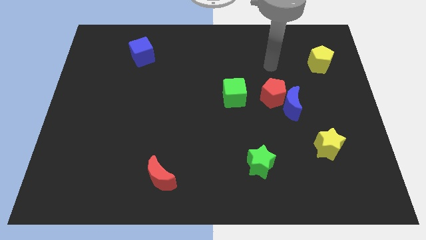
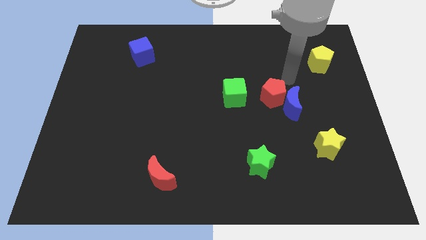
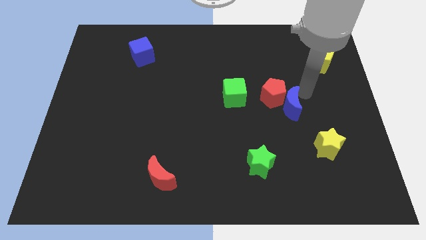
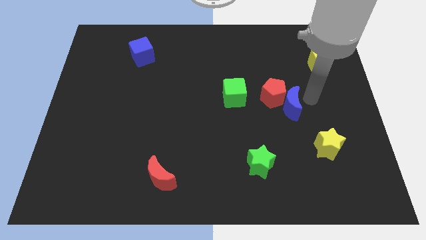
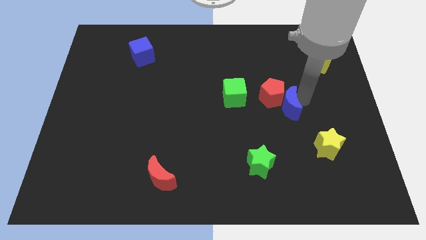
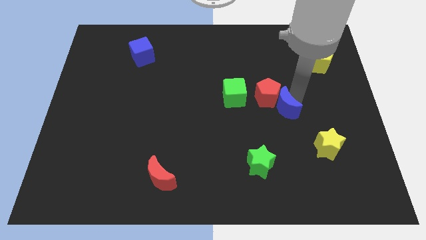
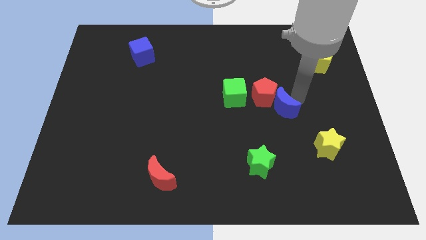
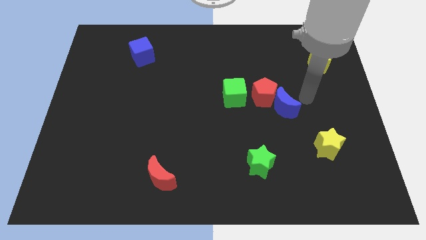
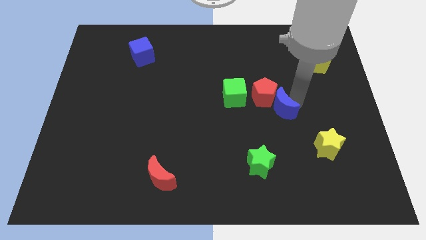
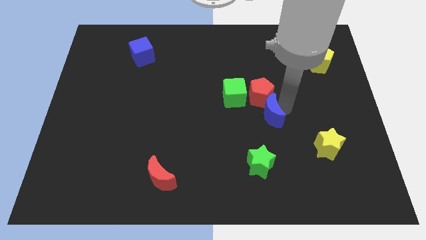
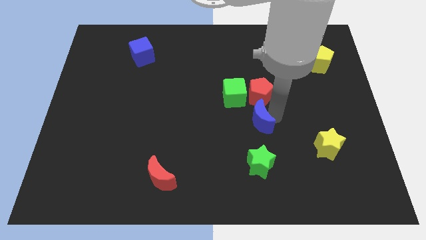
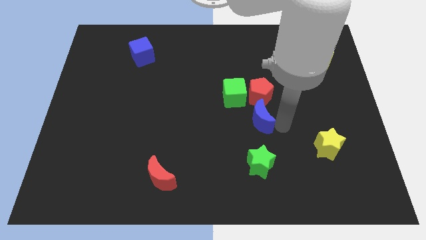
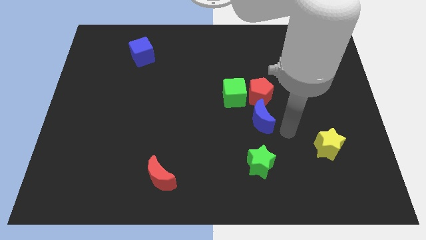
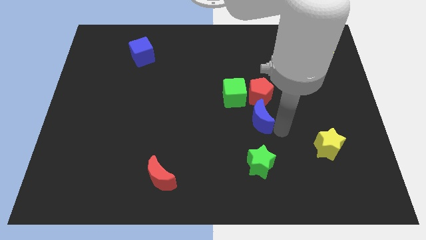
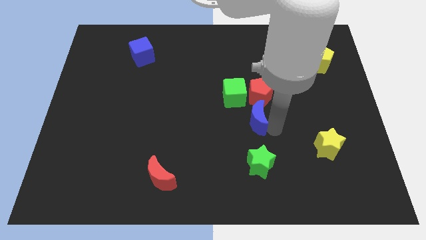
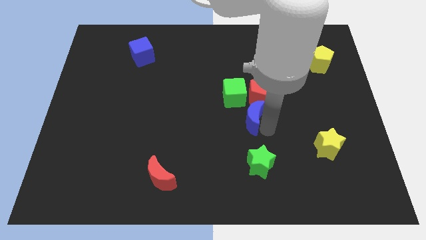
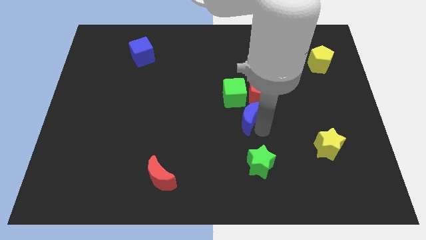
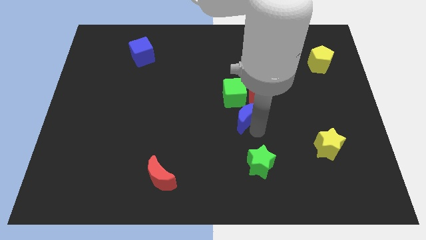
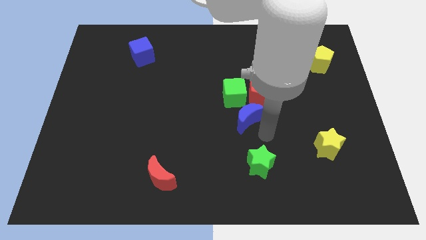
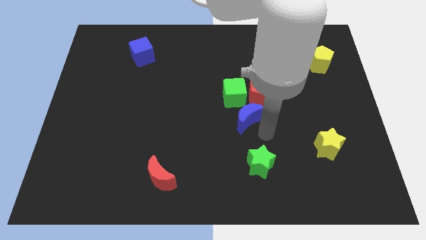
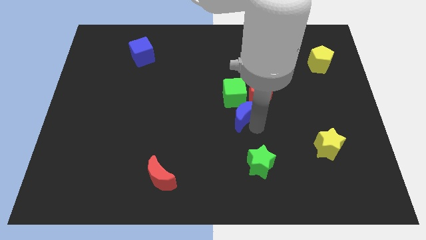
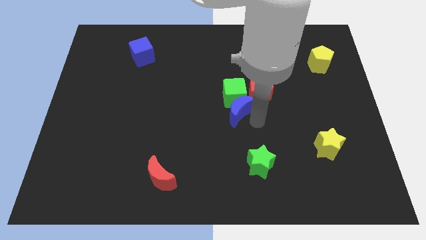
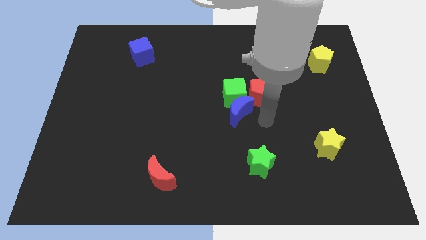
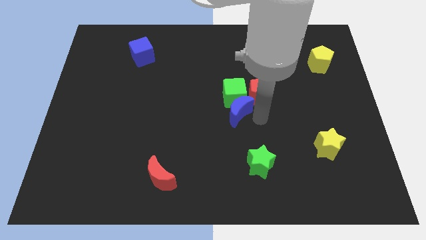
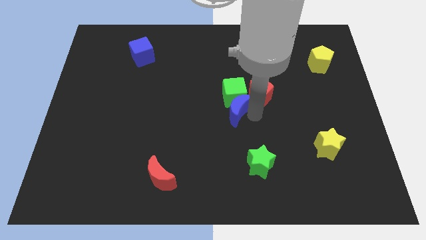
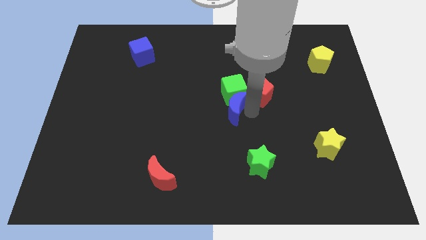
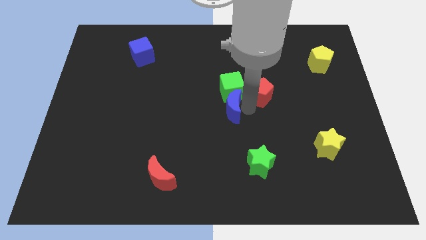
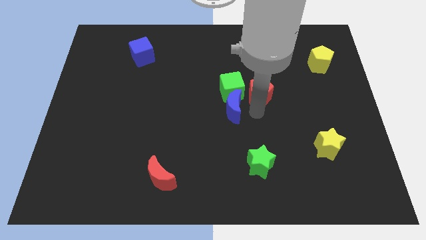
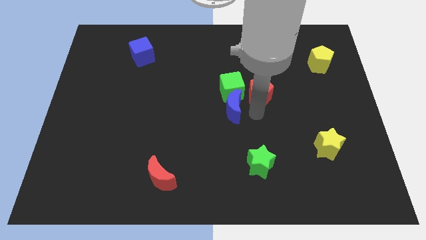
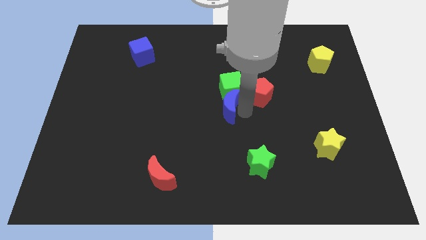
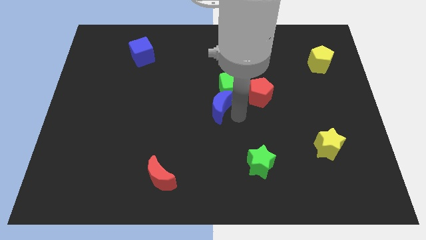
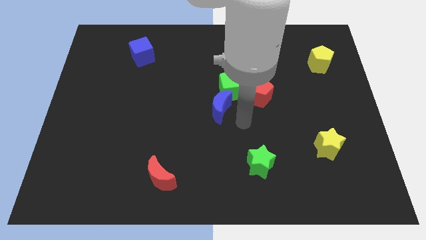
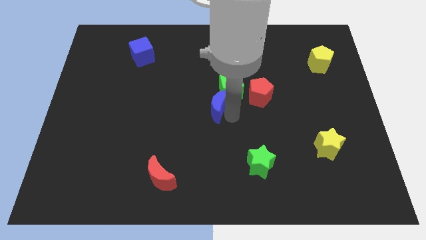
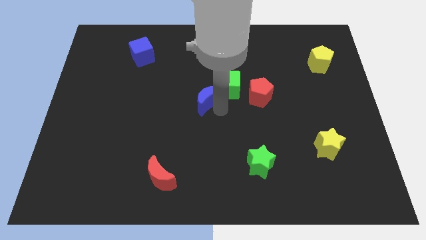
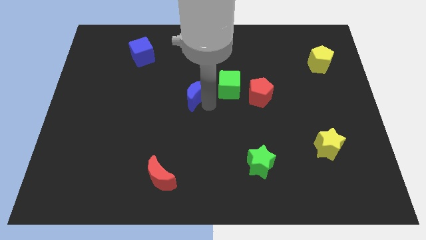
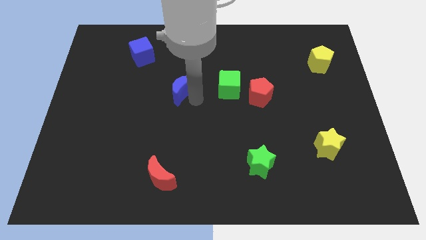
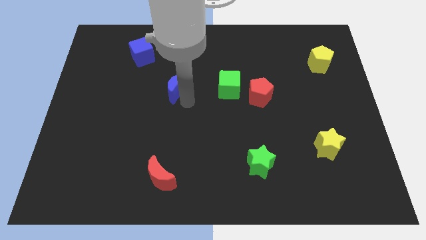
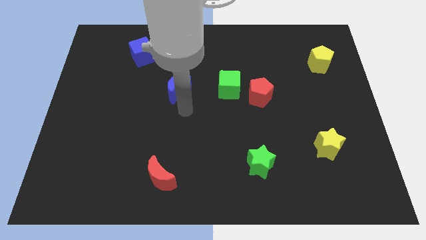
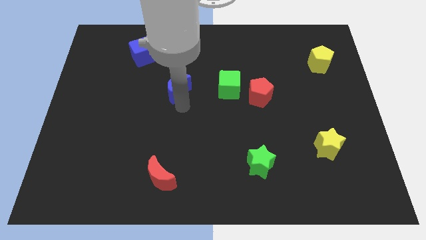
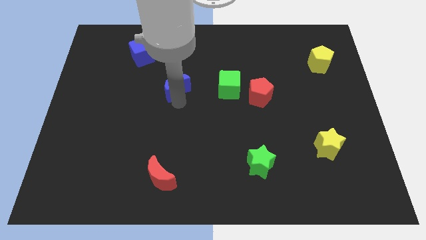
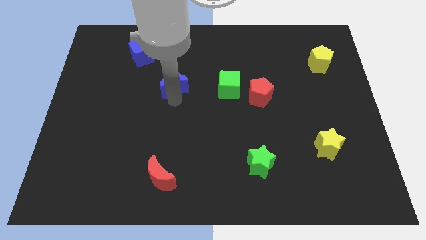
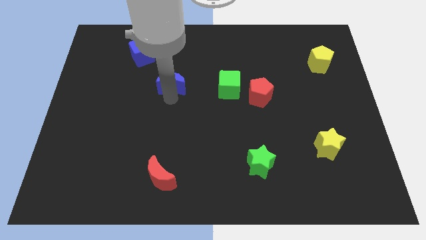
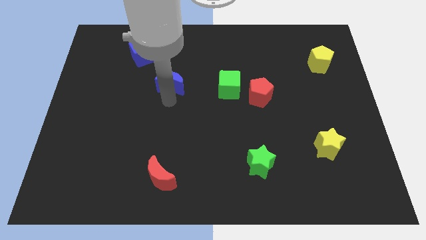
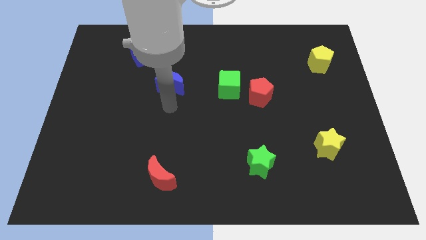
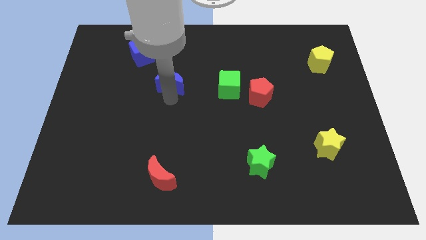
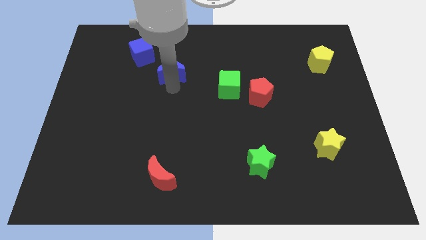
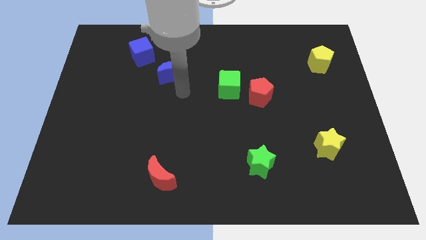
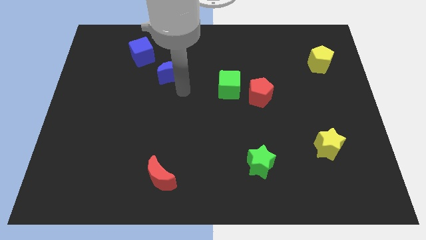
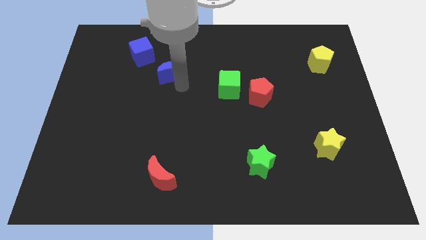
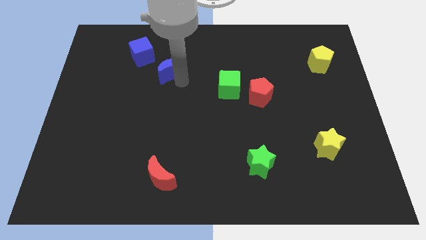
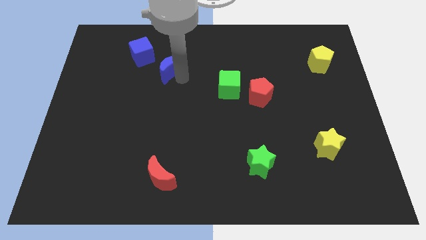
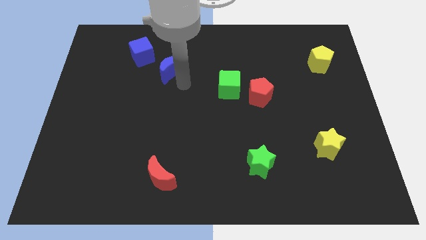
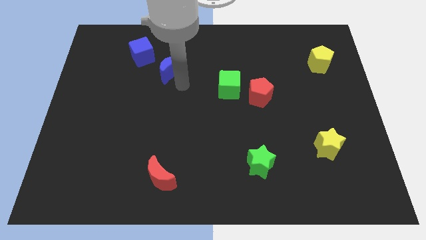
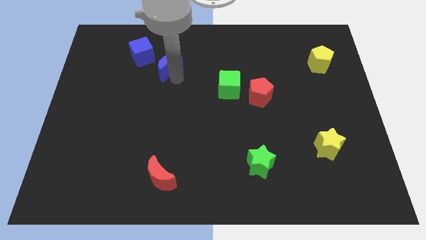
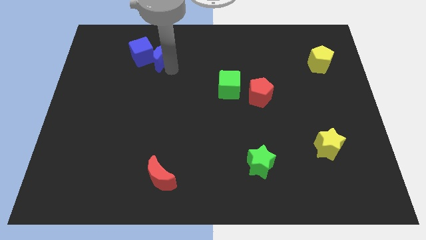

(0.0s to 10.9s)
push the blue moon towards the blue cube

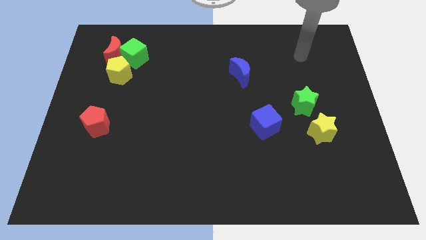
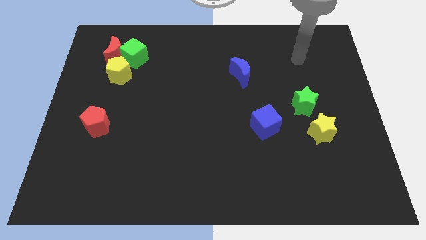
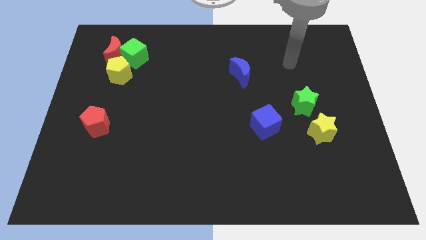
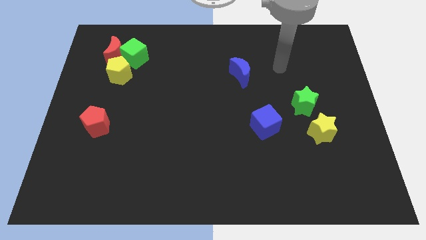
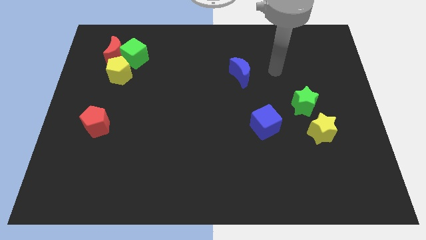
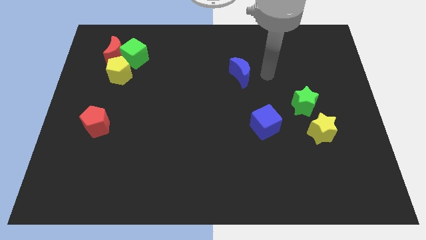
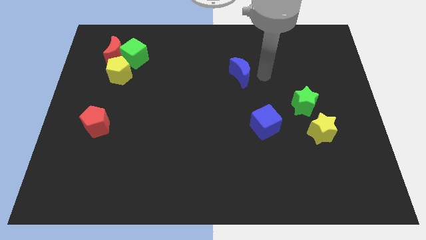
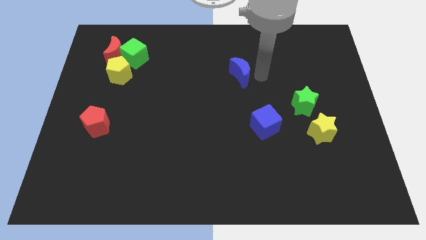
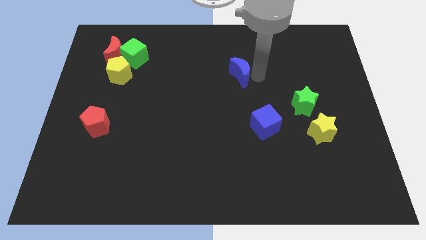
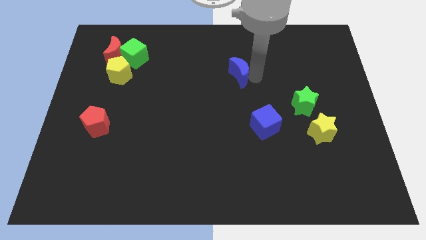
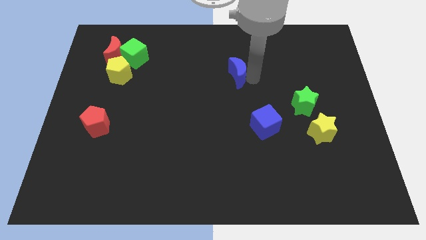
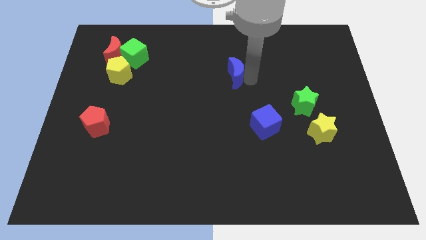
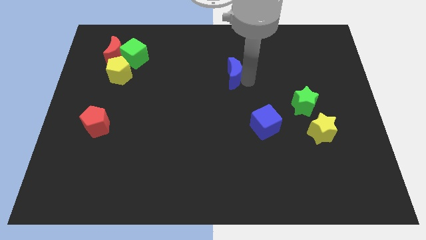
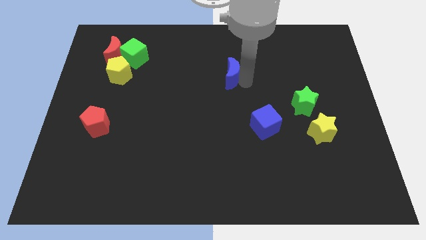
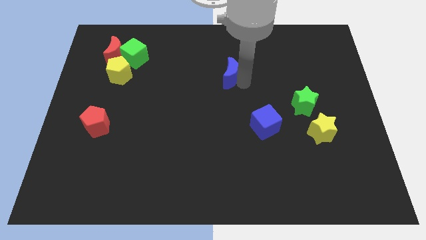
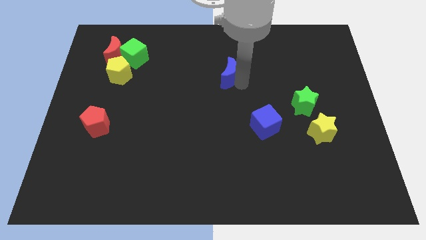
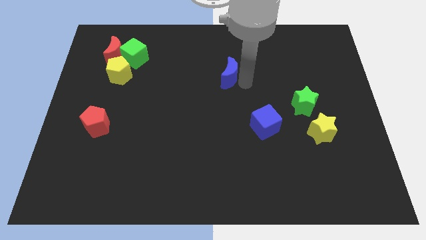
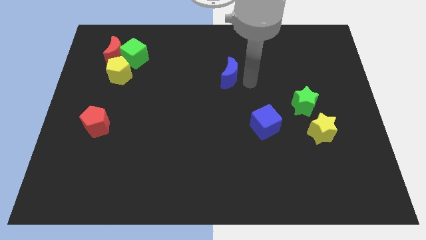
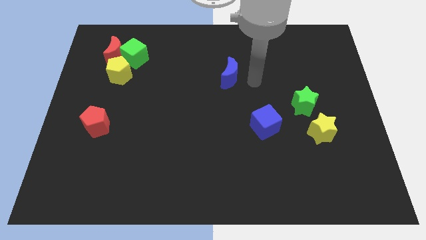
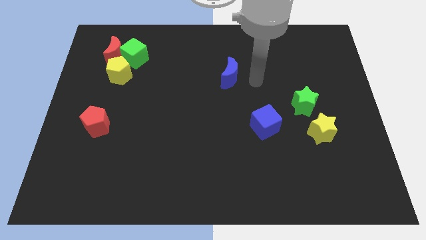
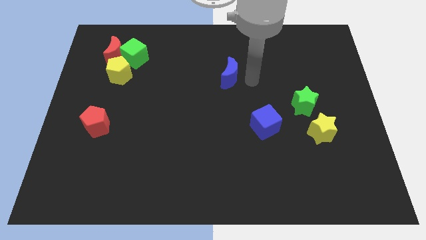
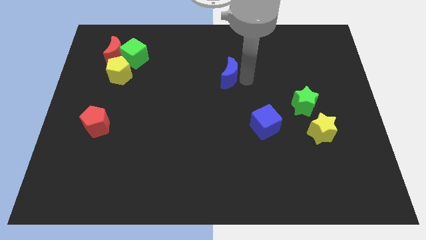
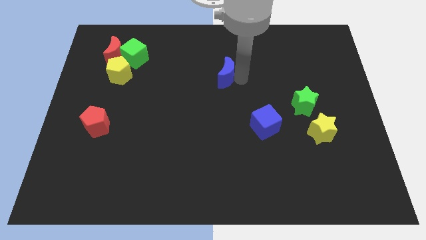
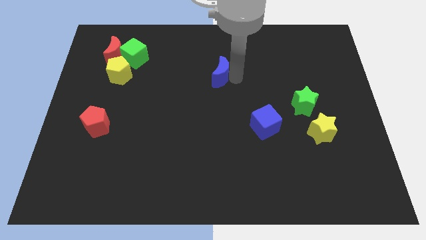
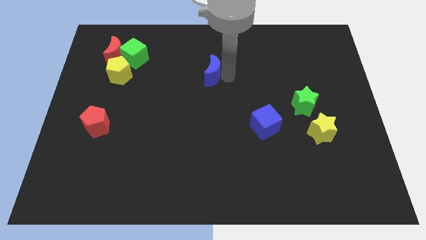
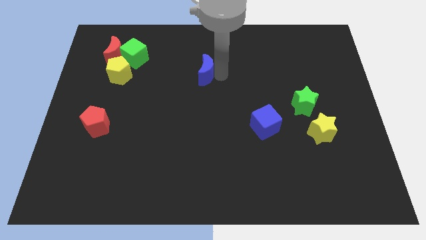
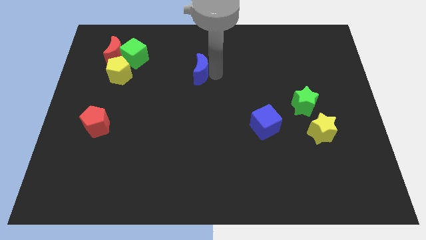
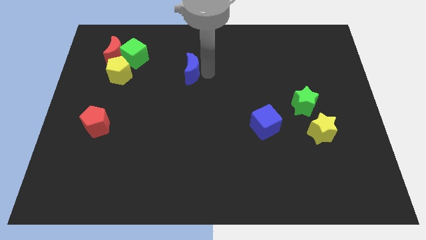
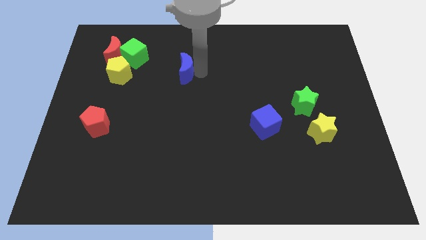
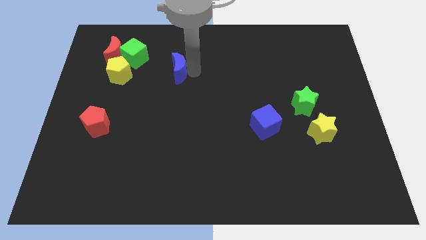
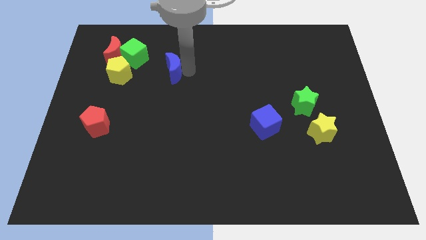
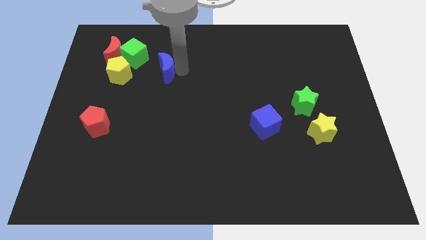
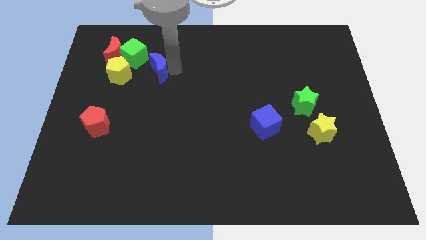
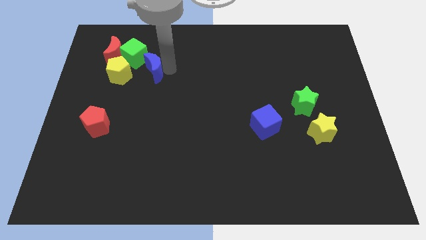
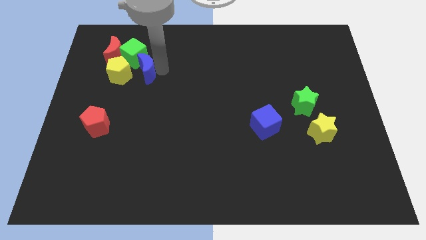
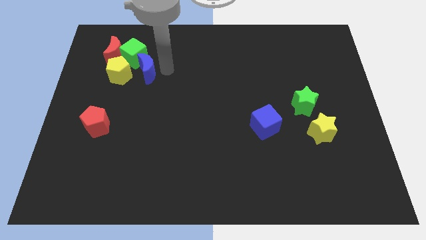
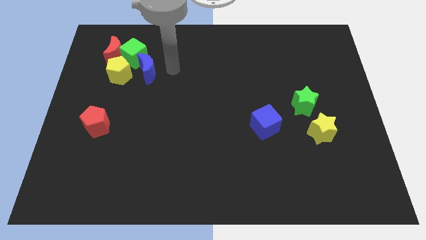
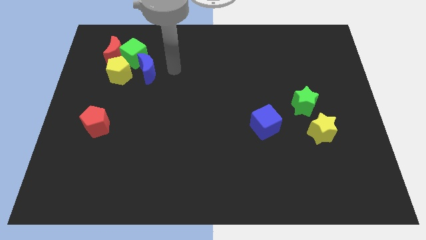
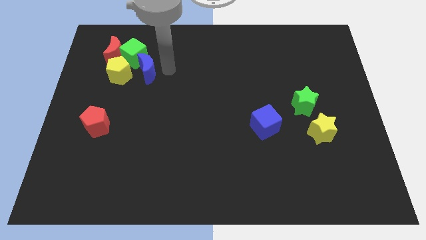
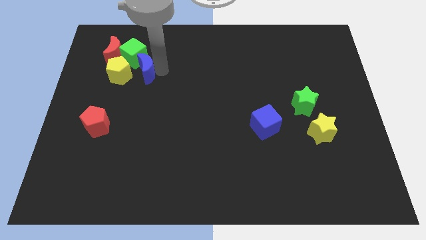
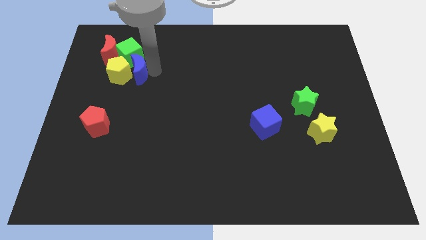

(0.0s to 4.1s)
put the blue moon towards the yellow pentagon
